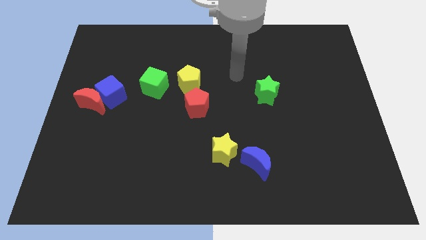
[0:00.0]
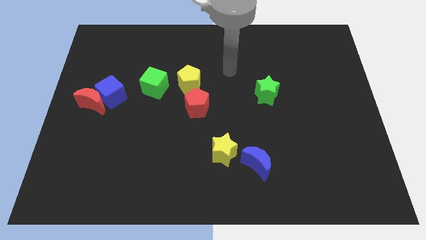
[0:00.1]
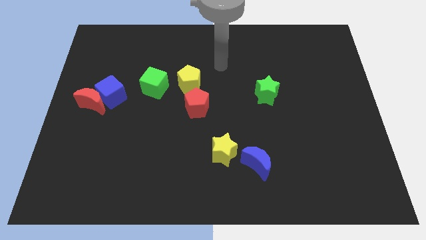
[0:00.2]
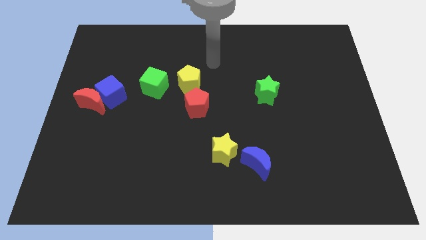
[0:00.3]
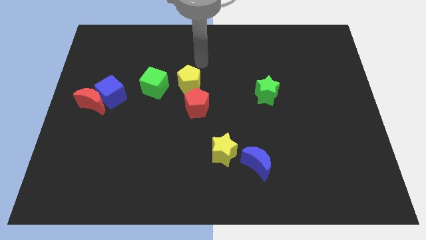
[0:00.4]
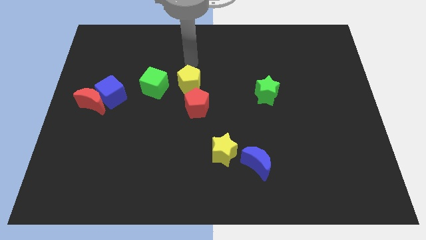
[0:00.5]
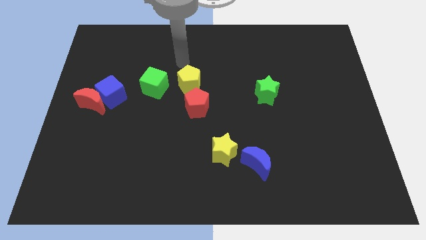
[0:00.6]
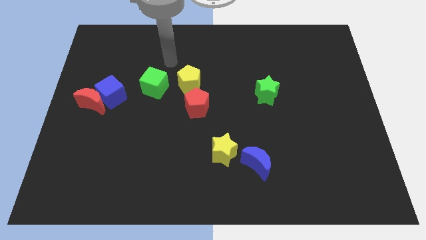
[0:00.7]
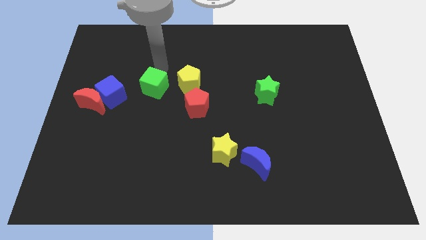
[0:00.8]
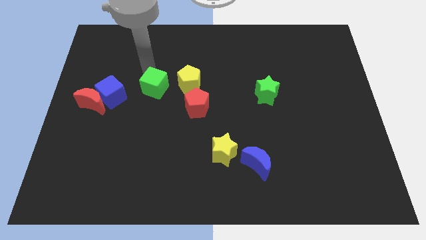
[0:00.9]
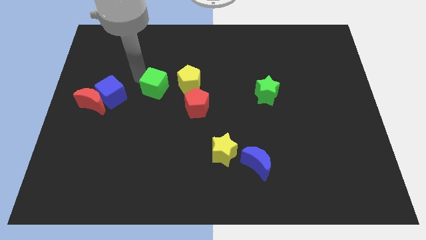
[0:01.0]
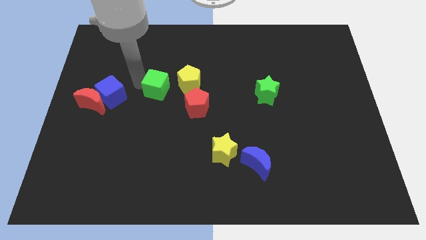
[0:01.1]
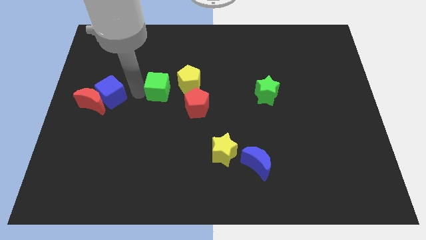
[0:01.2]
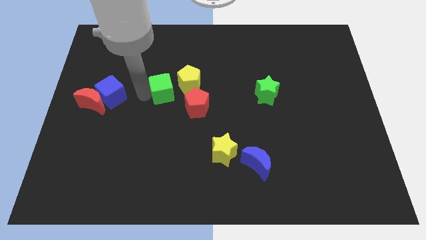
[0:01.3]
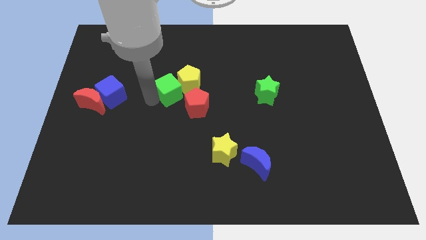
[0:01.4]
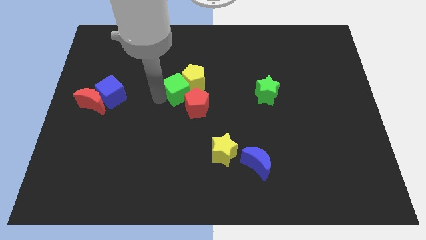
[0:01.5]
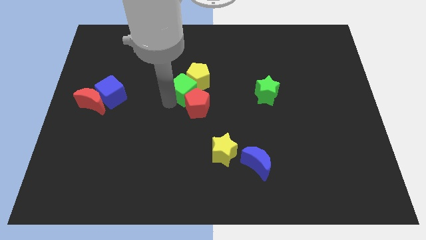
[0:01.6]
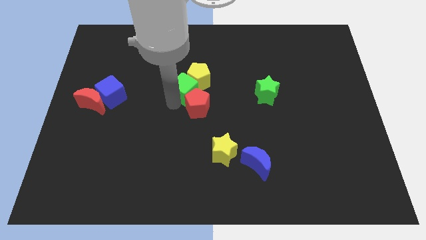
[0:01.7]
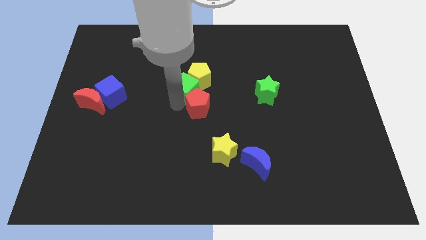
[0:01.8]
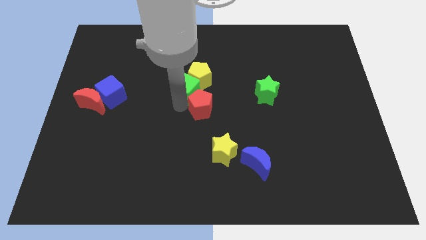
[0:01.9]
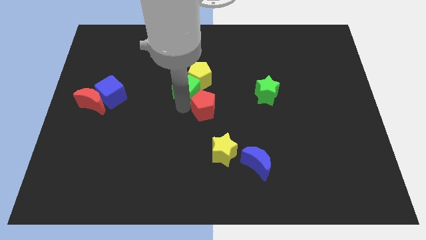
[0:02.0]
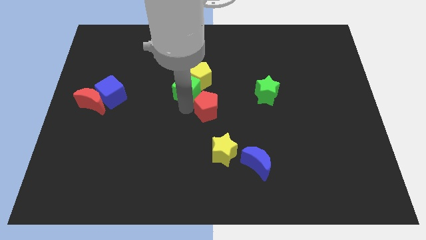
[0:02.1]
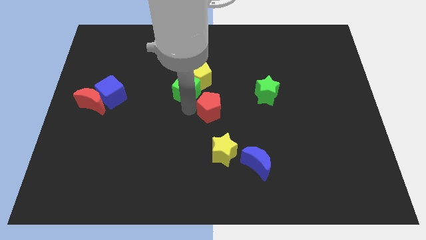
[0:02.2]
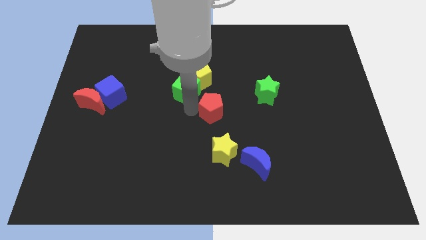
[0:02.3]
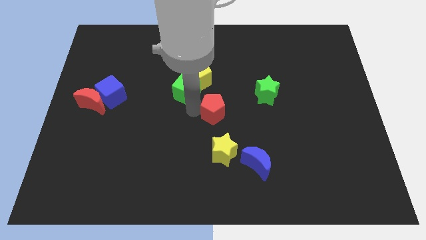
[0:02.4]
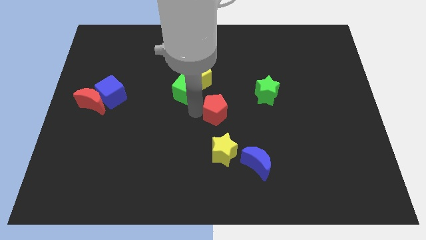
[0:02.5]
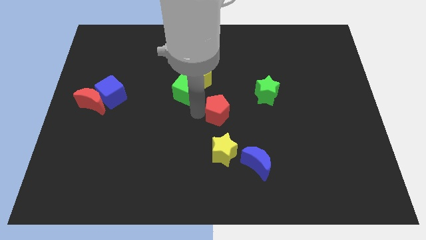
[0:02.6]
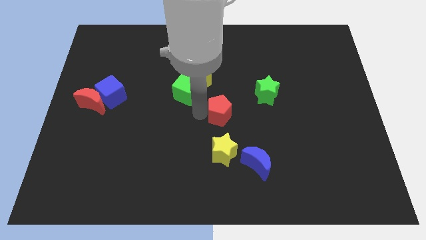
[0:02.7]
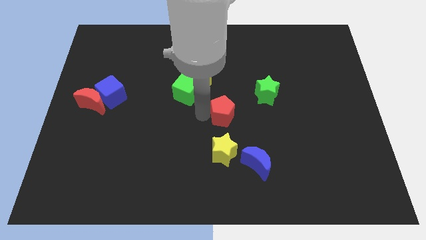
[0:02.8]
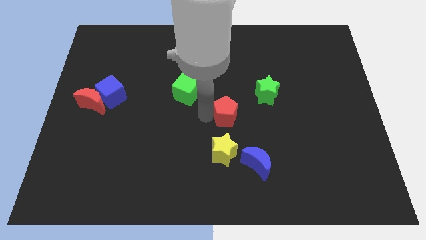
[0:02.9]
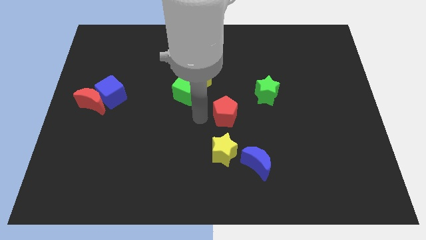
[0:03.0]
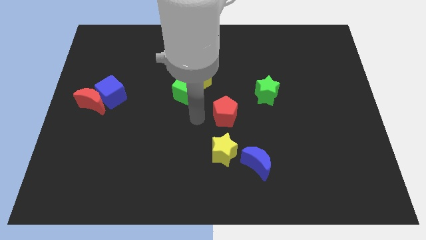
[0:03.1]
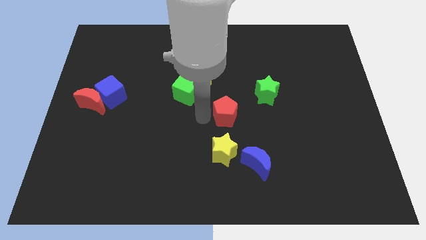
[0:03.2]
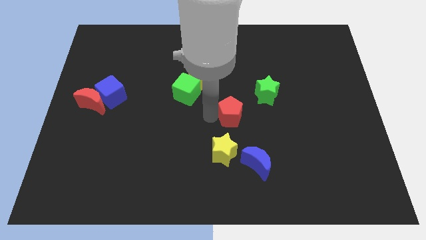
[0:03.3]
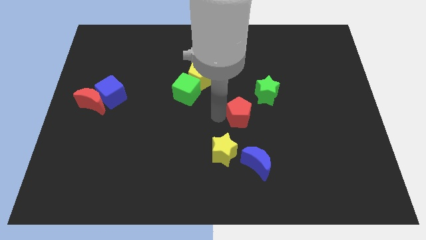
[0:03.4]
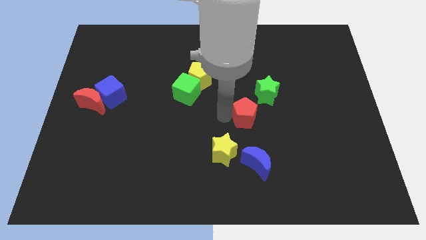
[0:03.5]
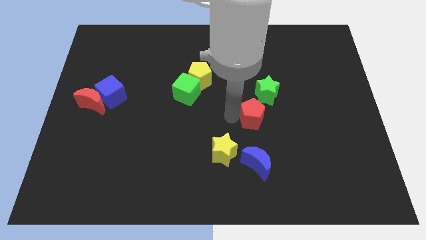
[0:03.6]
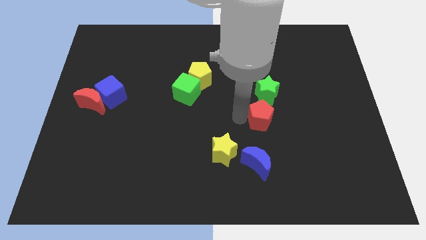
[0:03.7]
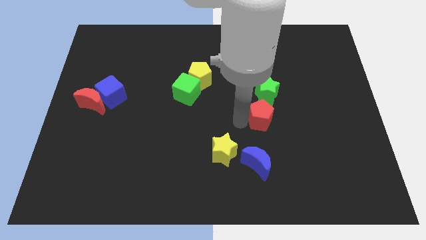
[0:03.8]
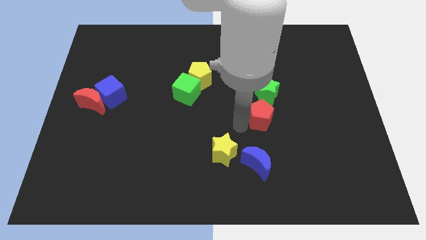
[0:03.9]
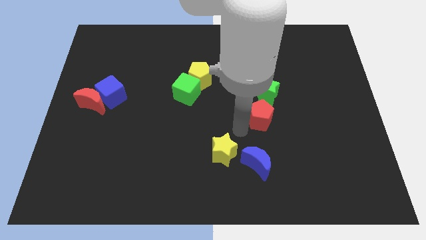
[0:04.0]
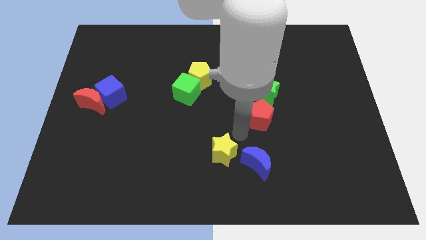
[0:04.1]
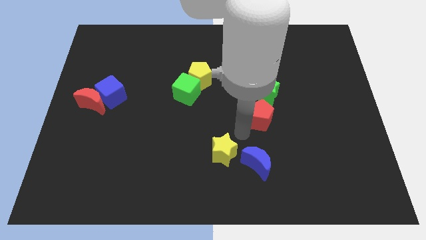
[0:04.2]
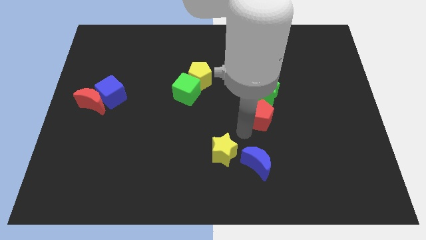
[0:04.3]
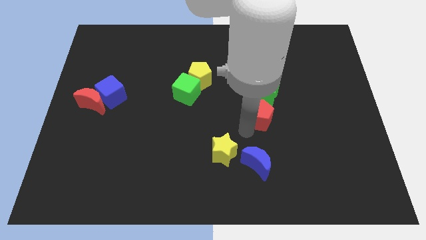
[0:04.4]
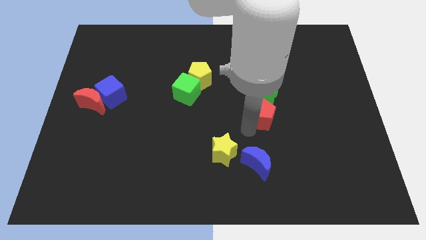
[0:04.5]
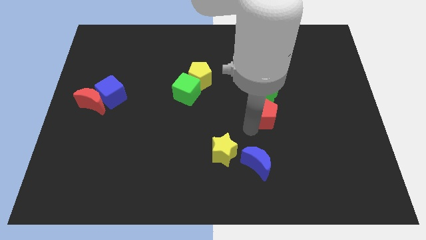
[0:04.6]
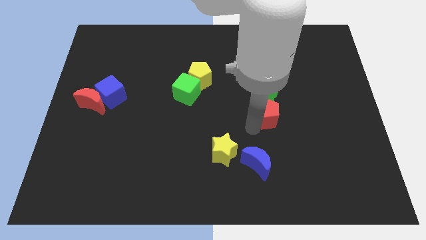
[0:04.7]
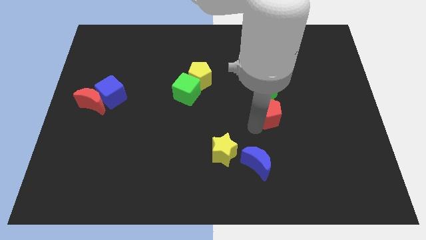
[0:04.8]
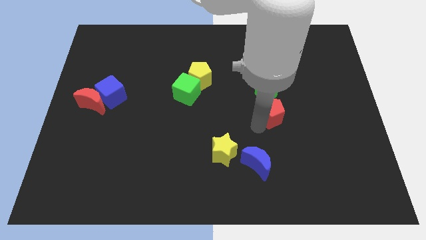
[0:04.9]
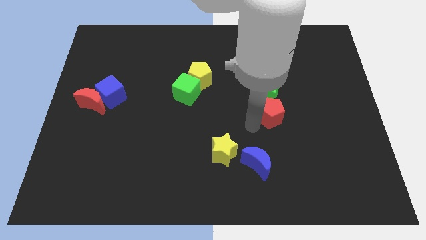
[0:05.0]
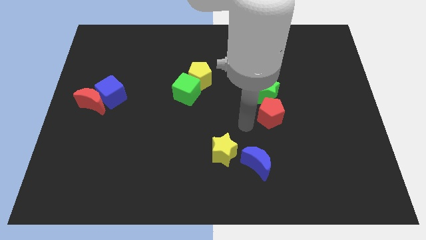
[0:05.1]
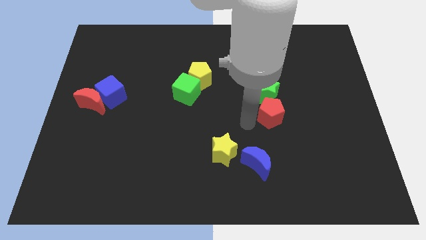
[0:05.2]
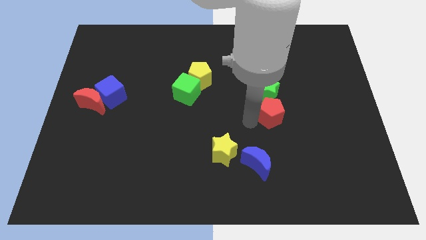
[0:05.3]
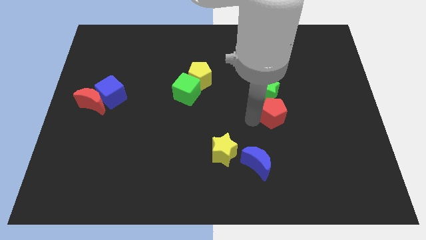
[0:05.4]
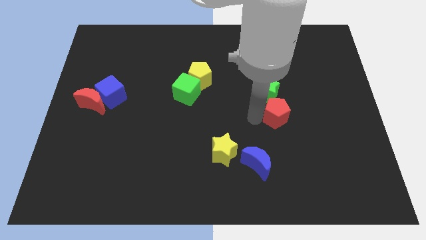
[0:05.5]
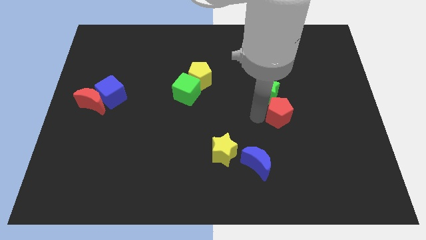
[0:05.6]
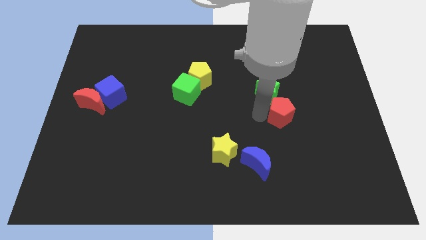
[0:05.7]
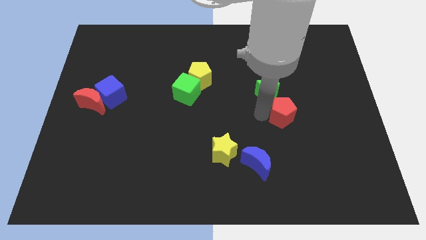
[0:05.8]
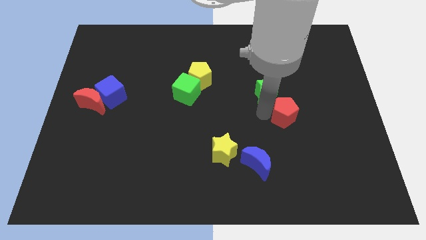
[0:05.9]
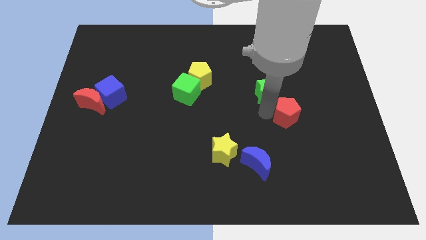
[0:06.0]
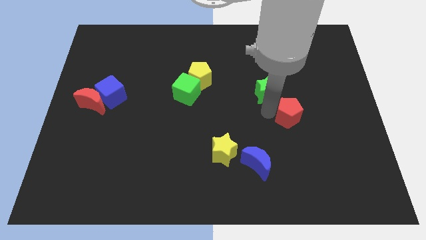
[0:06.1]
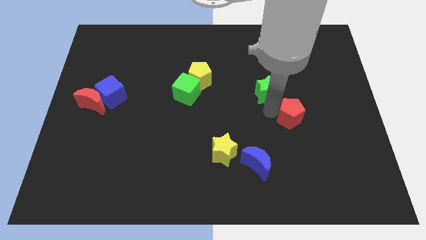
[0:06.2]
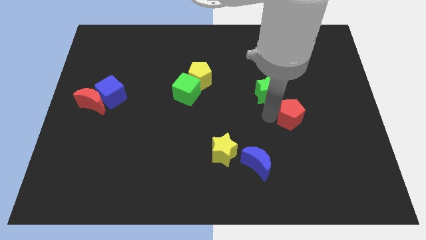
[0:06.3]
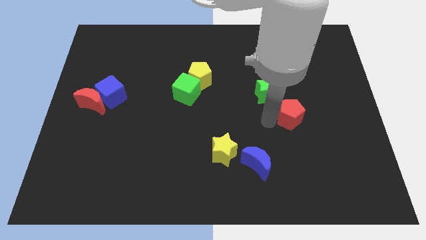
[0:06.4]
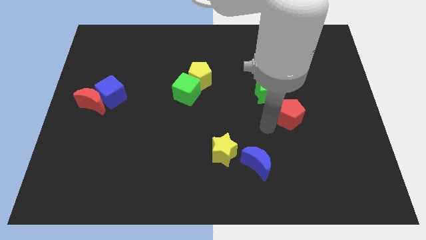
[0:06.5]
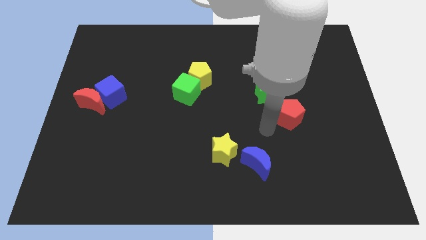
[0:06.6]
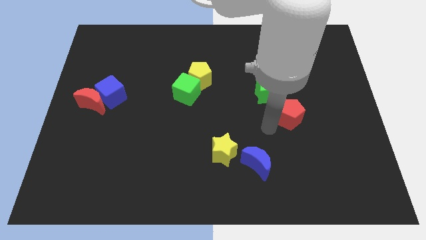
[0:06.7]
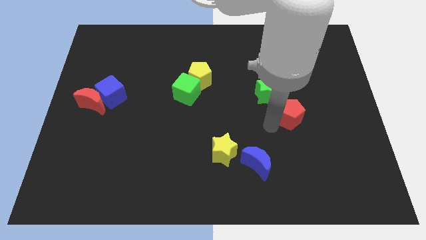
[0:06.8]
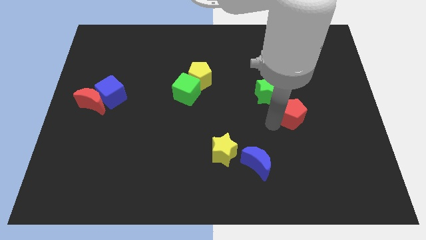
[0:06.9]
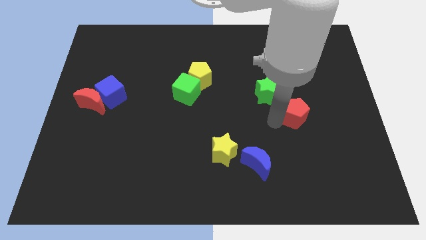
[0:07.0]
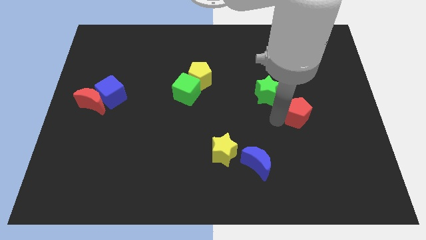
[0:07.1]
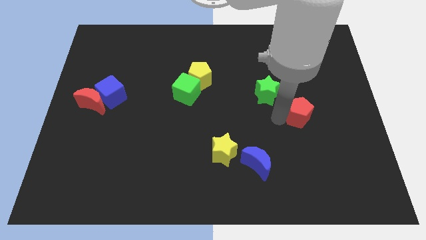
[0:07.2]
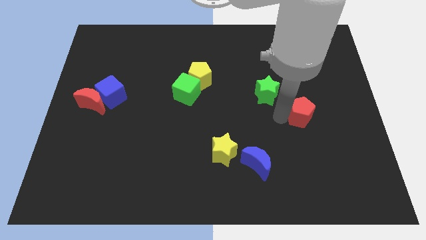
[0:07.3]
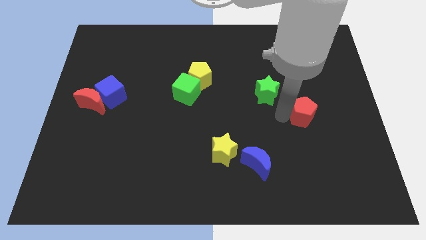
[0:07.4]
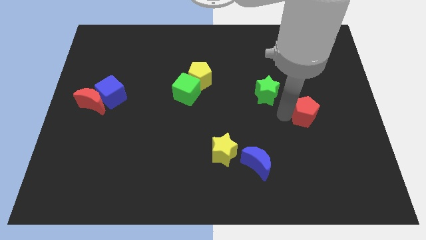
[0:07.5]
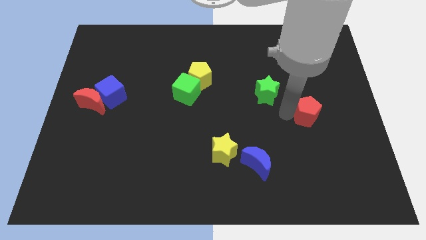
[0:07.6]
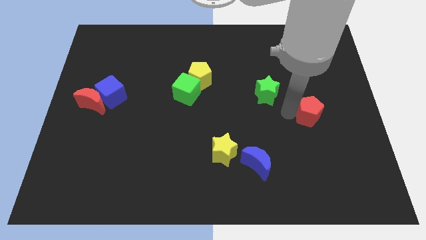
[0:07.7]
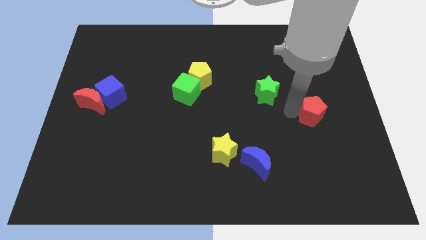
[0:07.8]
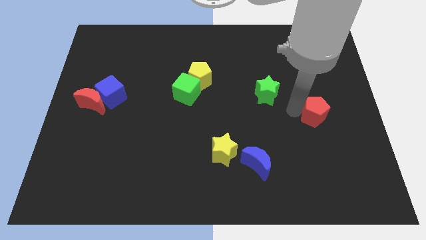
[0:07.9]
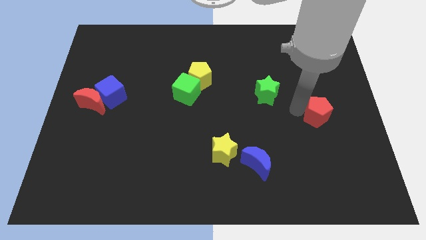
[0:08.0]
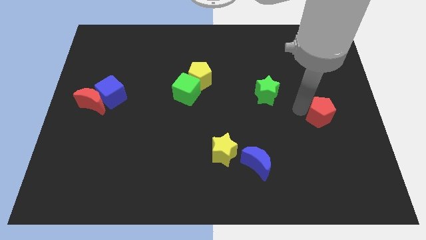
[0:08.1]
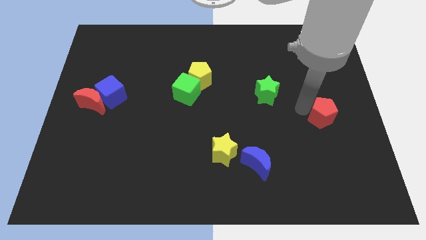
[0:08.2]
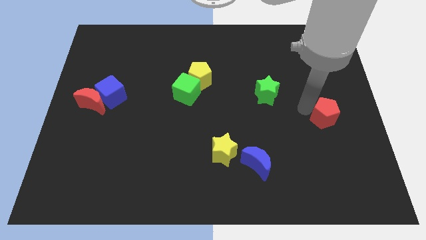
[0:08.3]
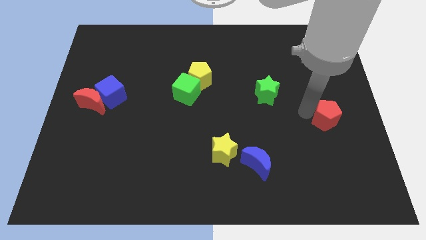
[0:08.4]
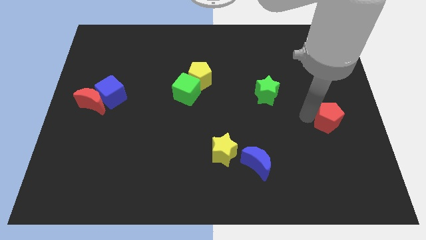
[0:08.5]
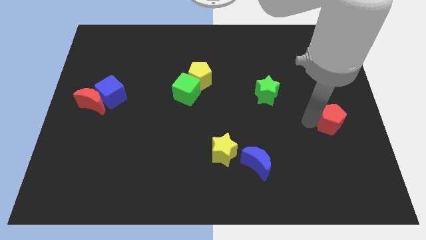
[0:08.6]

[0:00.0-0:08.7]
slide the red pentagon to the right side of the board
